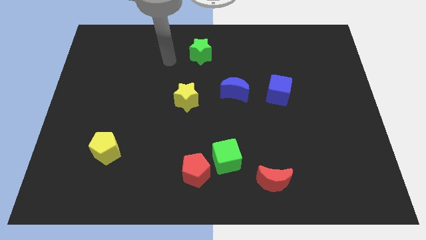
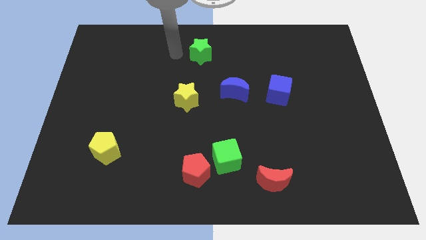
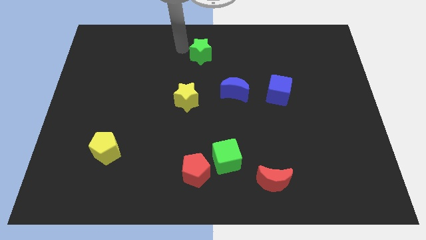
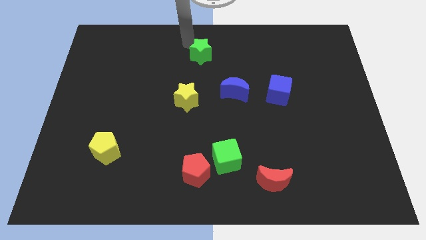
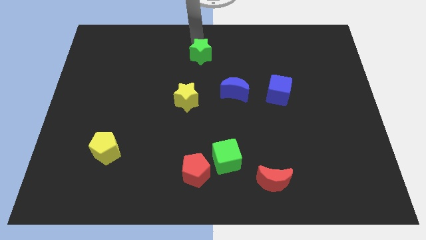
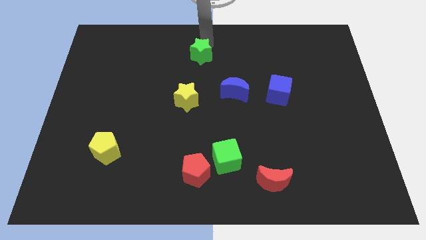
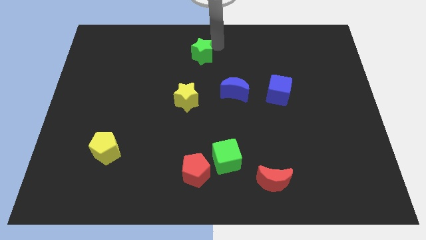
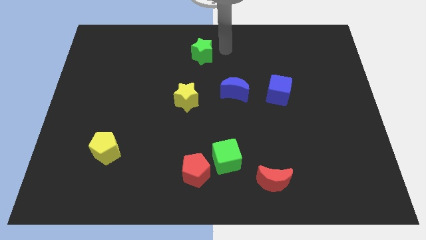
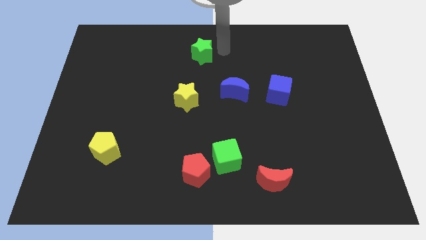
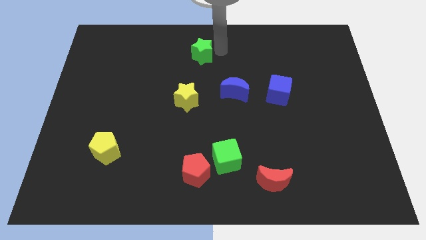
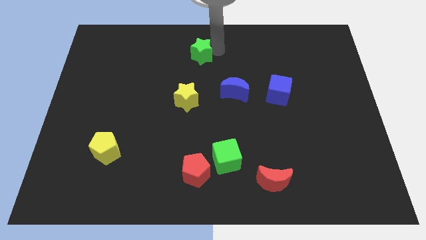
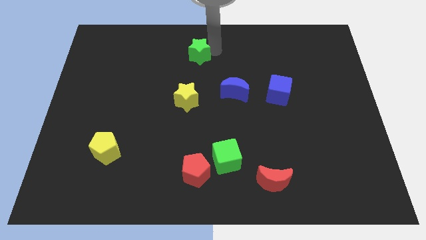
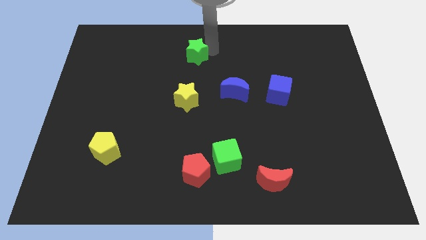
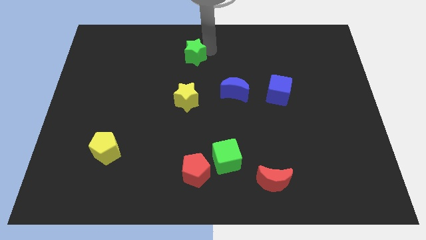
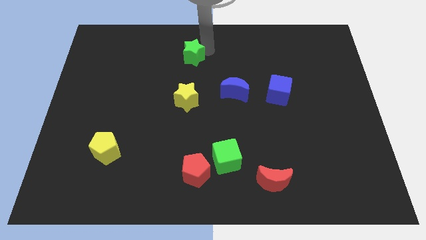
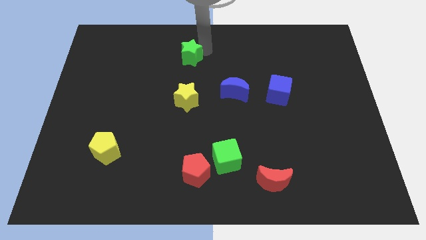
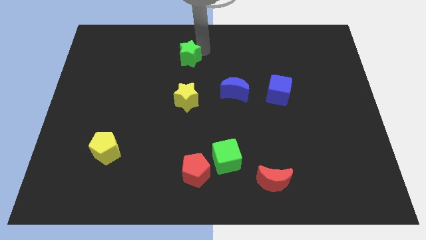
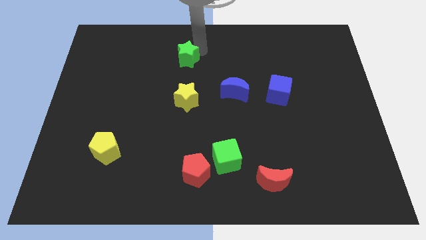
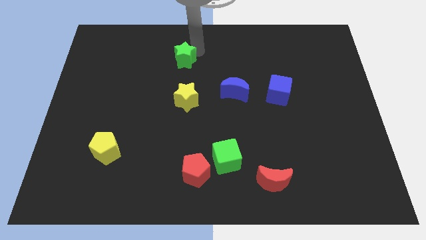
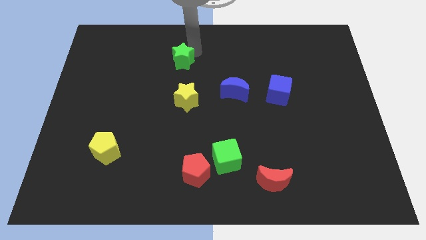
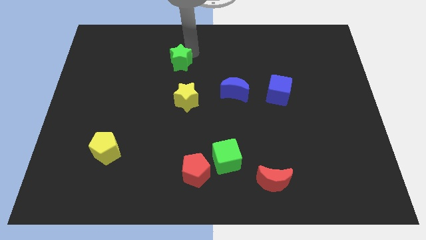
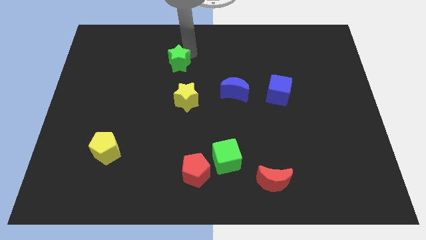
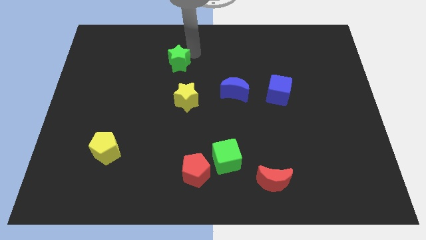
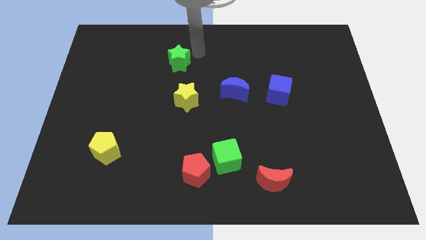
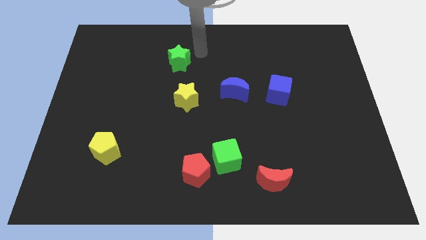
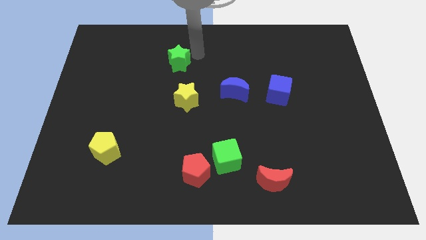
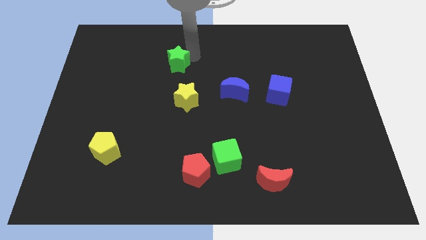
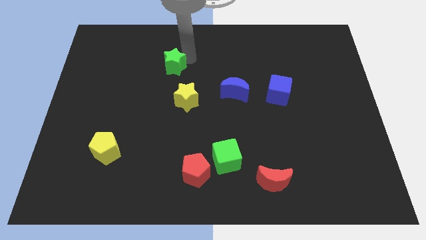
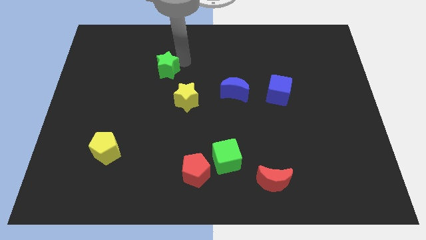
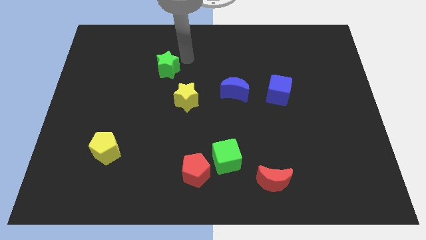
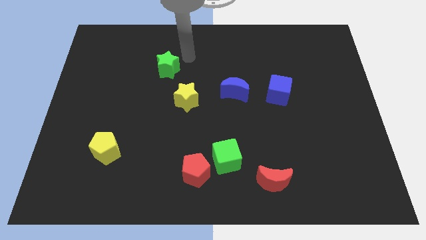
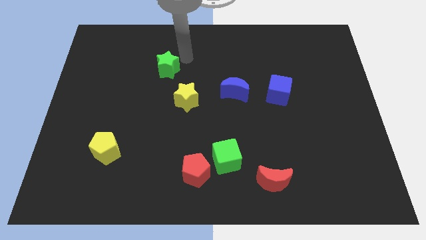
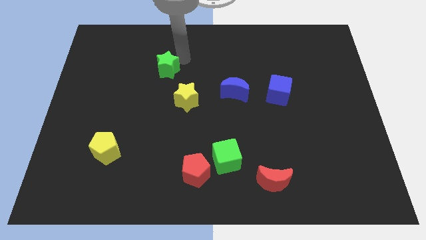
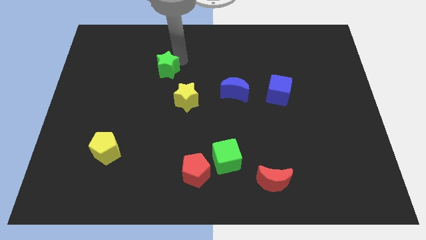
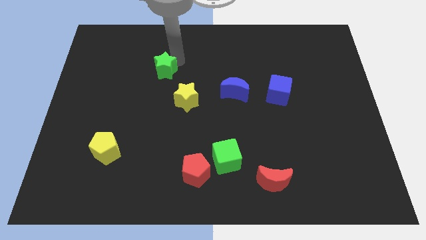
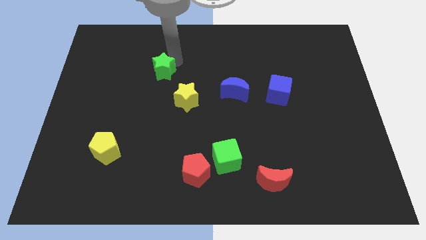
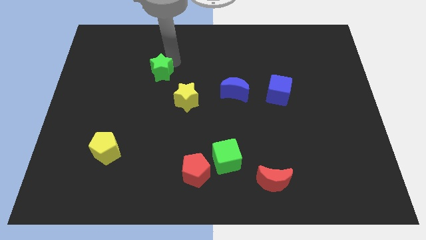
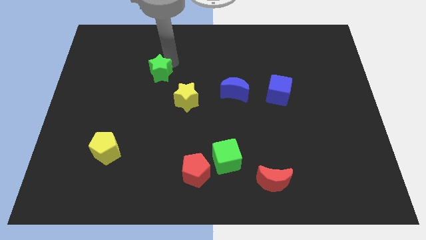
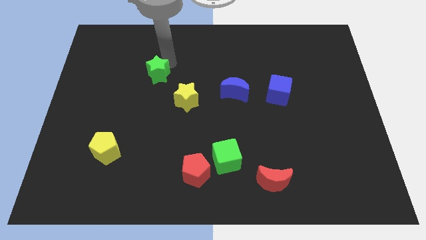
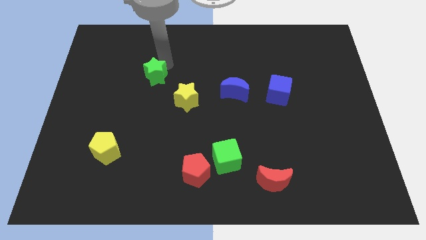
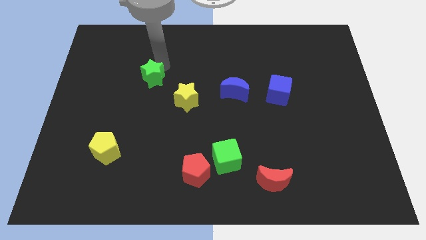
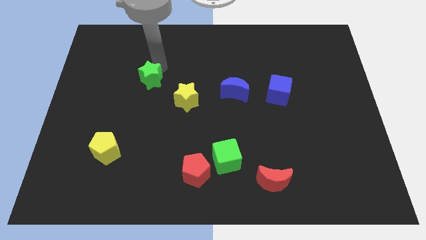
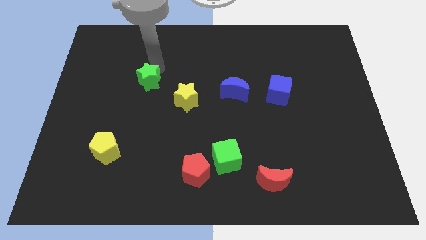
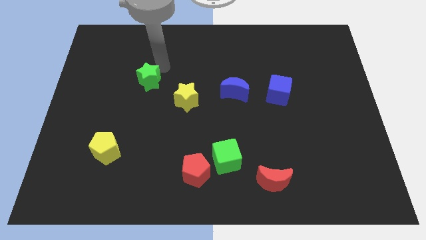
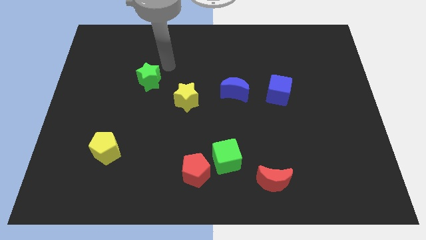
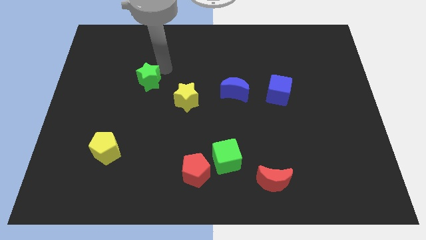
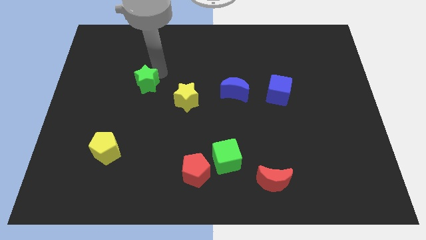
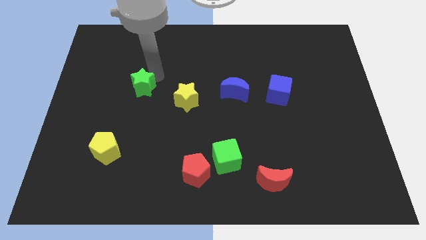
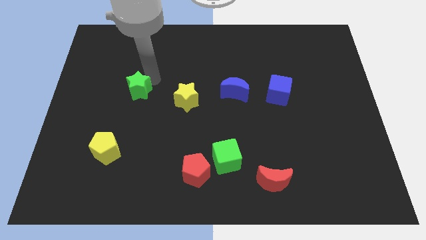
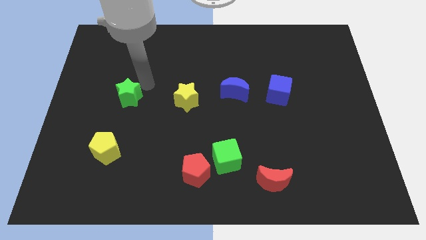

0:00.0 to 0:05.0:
move the green star down and to the left diagonally

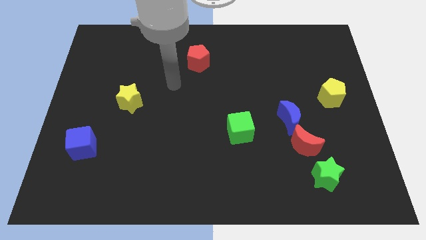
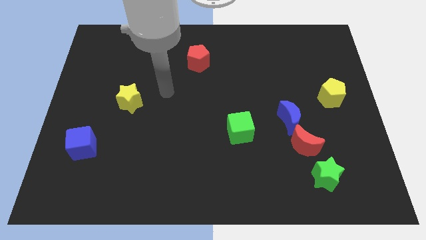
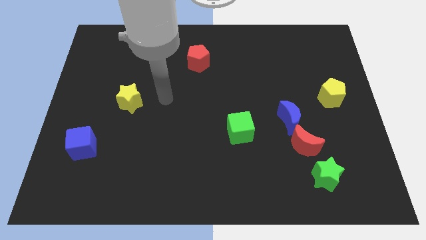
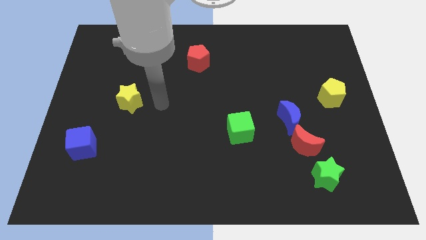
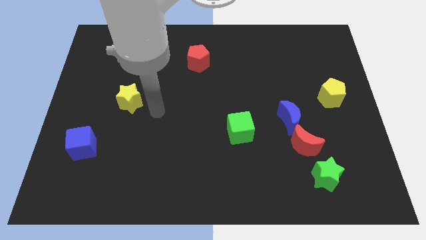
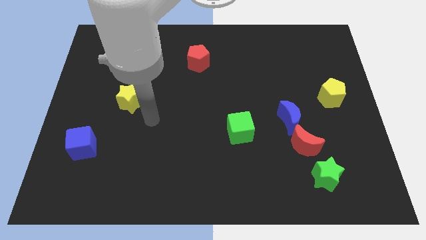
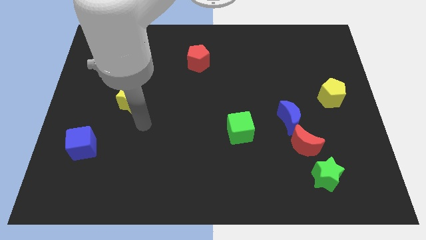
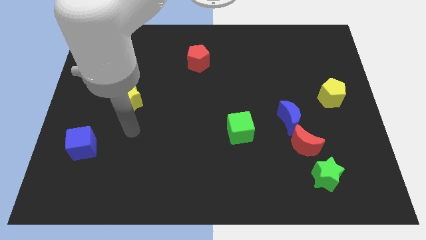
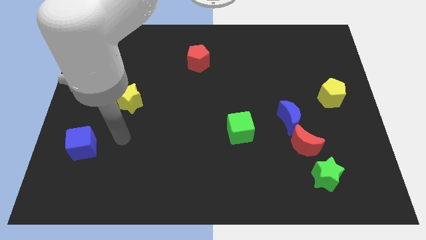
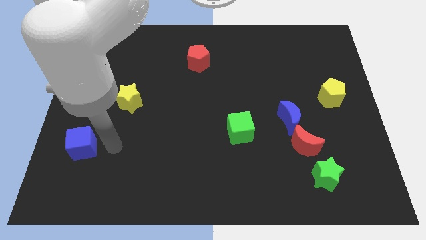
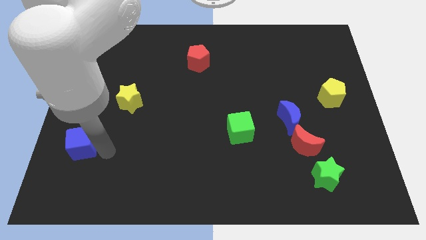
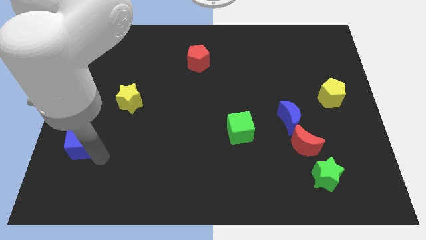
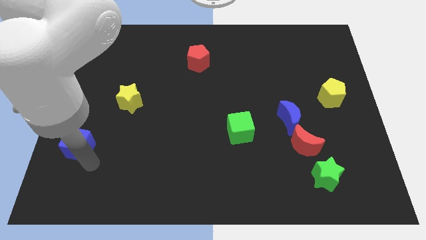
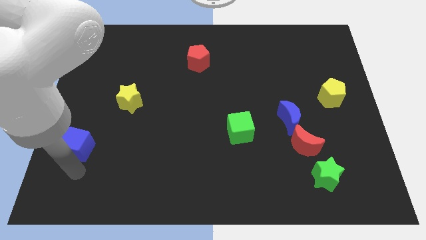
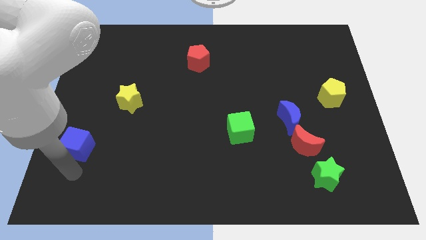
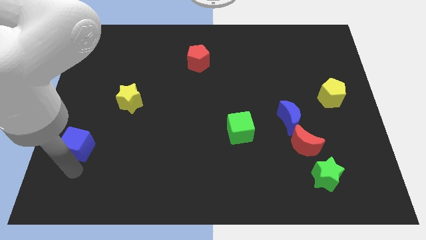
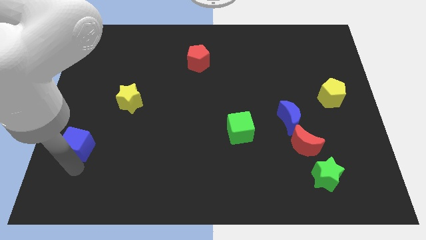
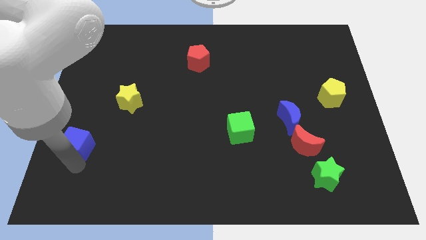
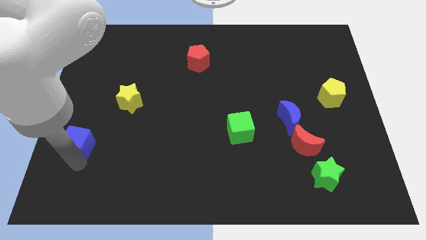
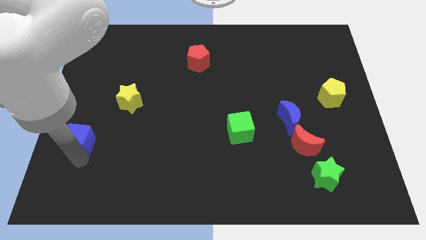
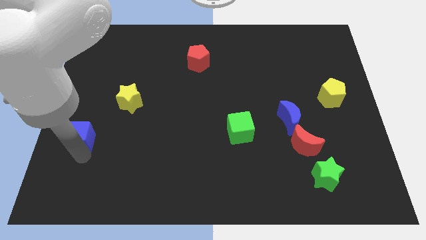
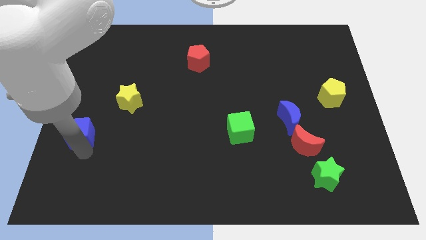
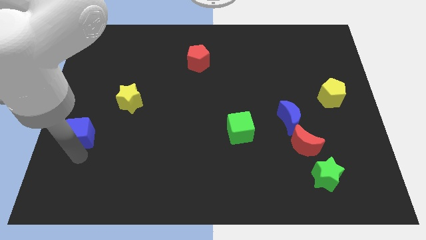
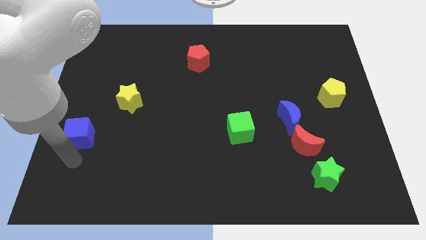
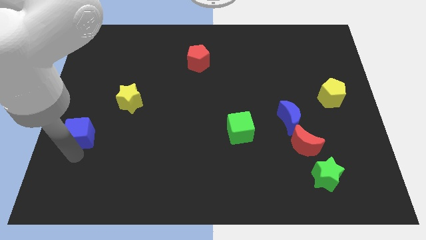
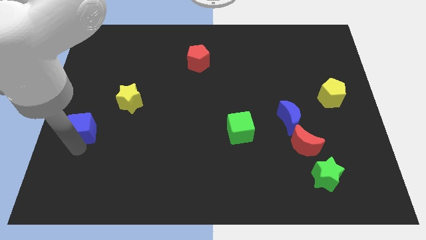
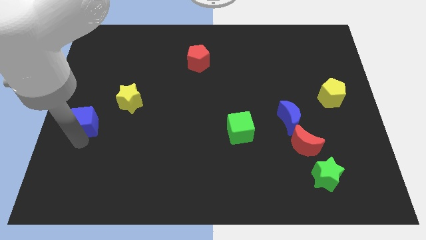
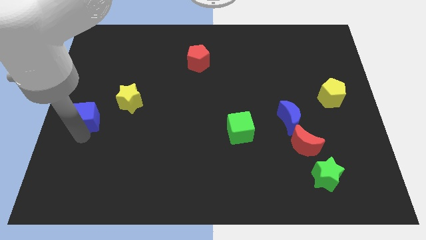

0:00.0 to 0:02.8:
move the blue cube slightly upwards

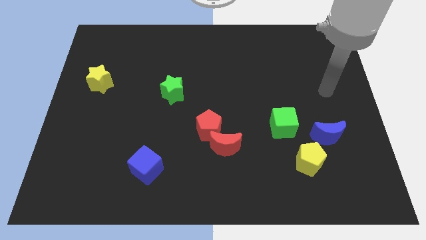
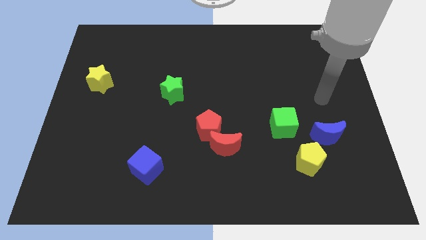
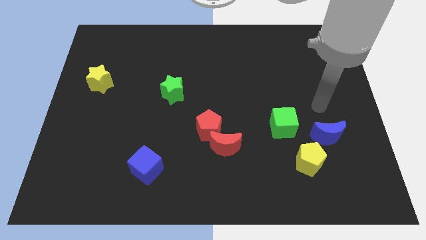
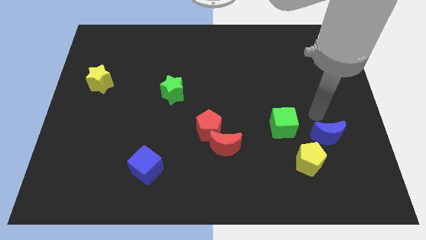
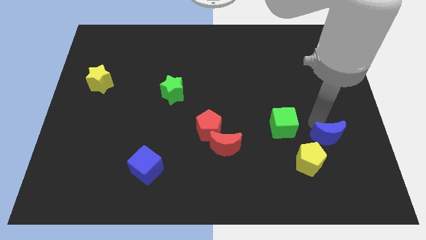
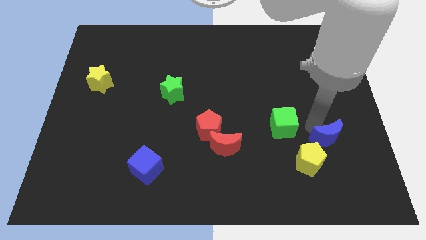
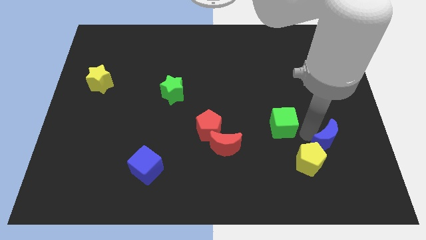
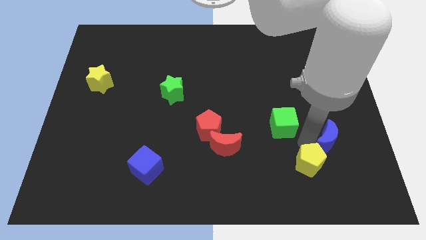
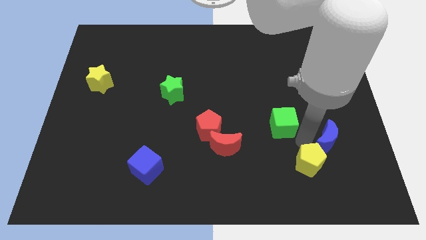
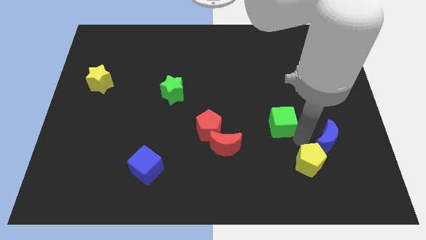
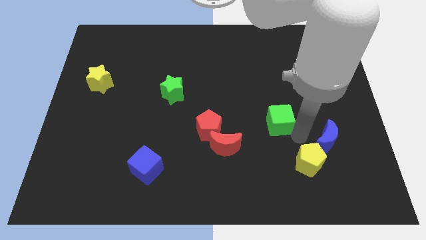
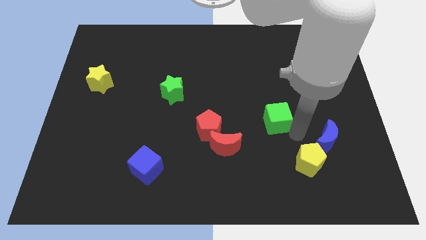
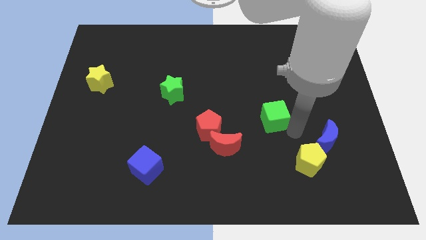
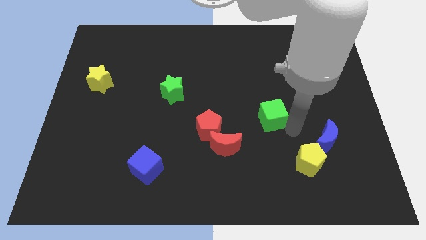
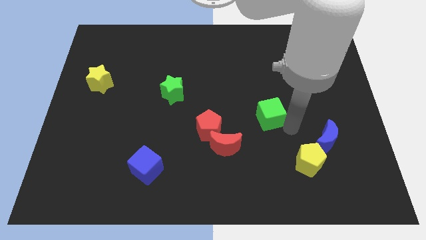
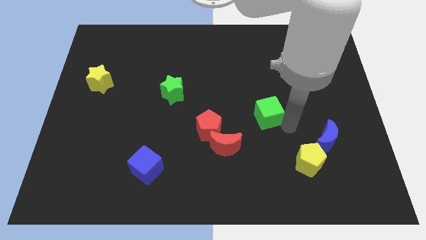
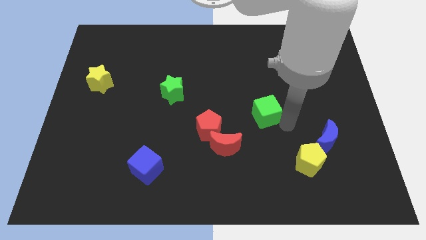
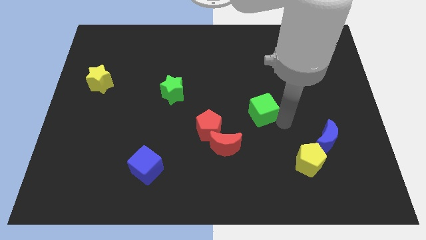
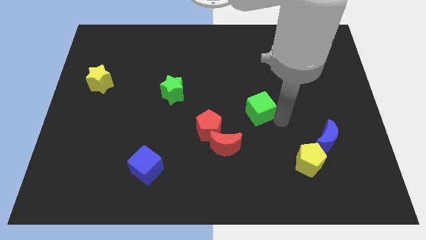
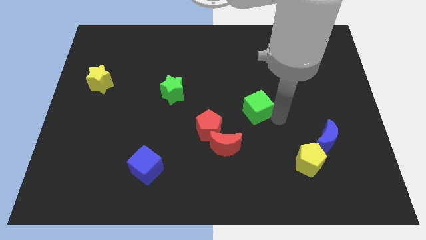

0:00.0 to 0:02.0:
slightly move the green cube up and left
